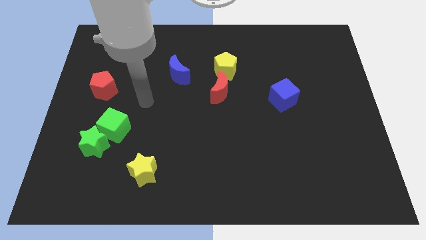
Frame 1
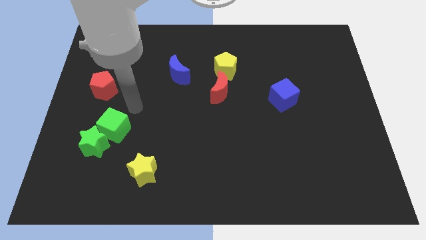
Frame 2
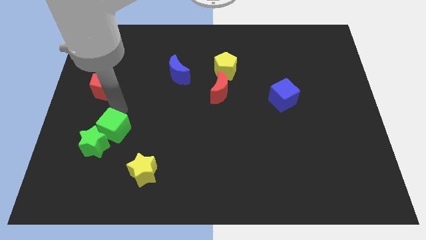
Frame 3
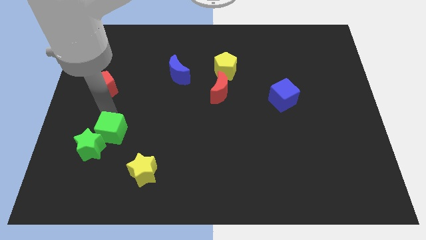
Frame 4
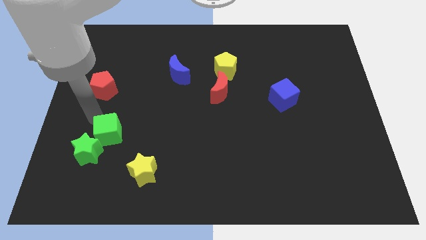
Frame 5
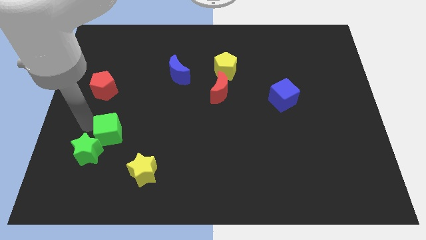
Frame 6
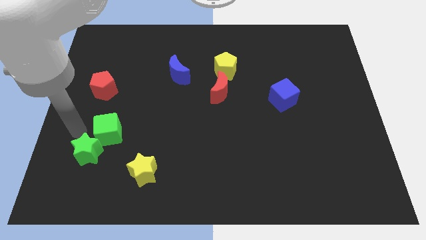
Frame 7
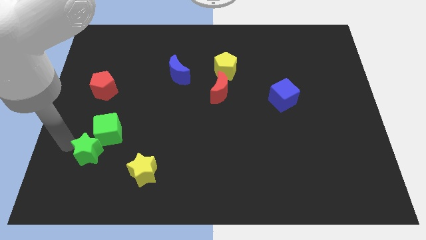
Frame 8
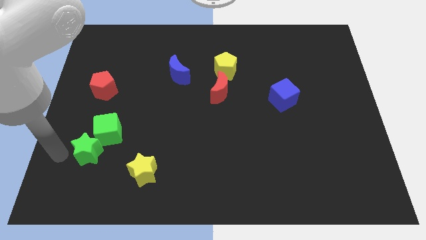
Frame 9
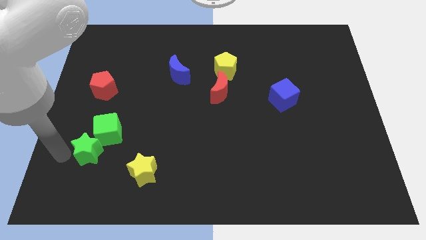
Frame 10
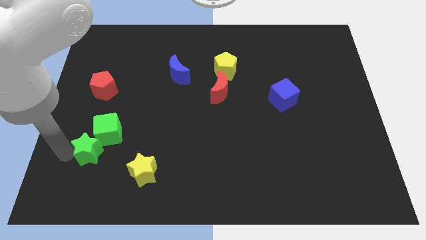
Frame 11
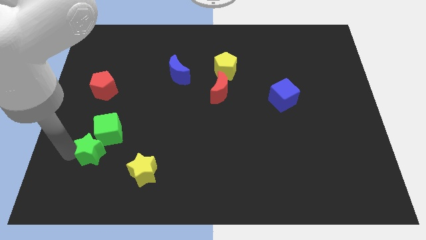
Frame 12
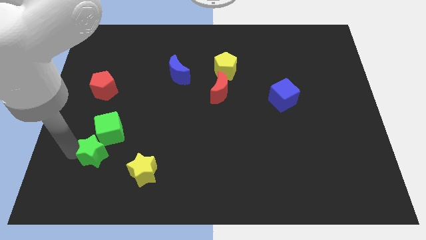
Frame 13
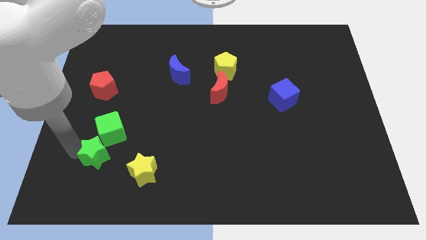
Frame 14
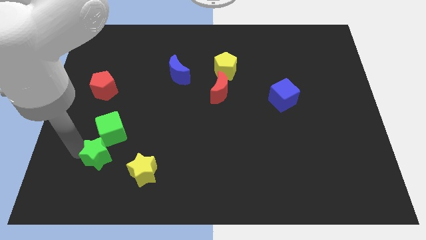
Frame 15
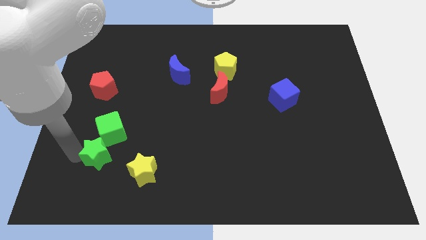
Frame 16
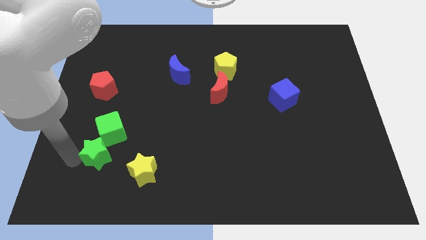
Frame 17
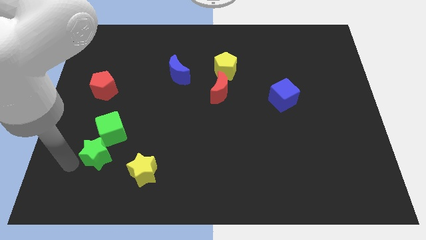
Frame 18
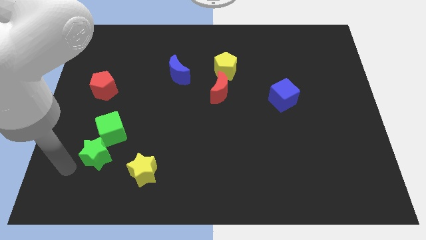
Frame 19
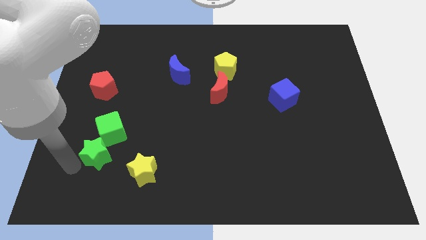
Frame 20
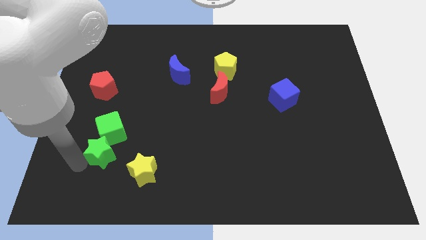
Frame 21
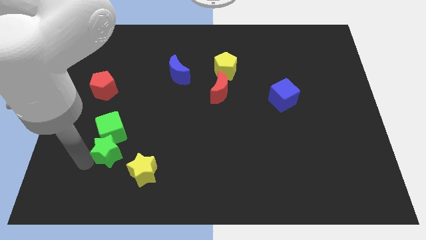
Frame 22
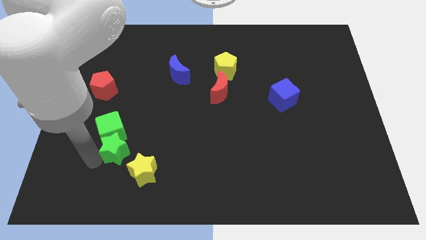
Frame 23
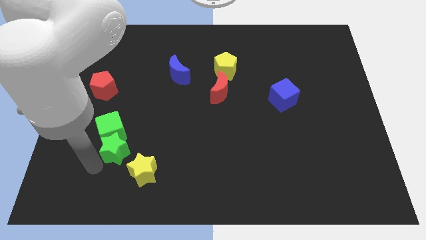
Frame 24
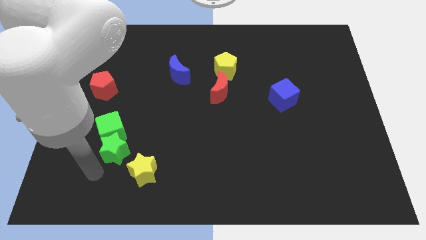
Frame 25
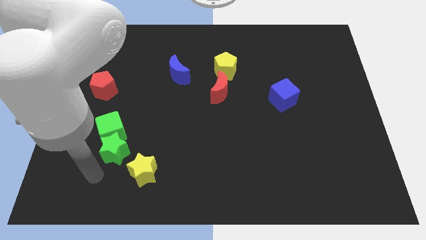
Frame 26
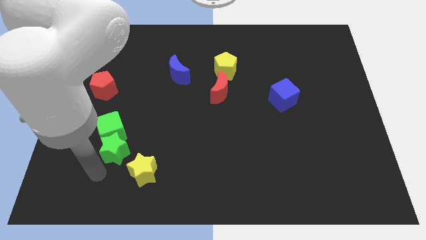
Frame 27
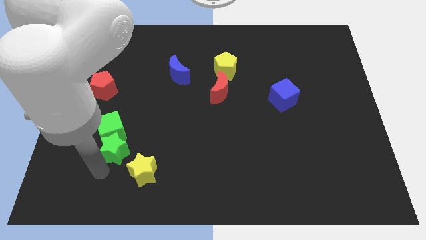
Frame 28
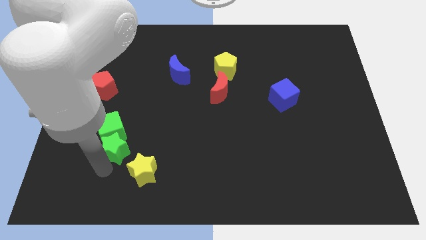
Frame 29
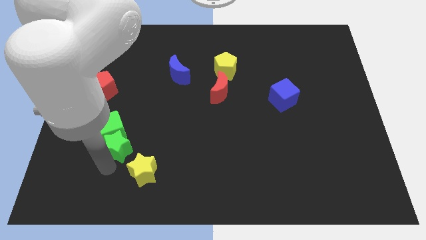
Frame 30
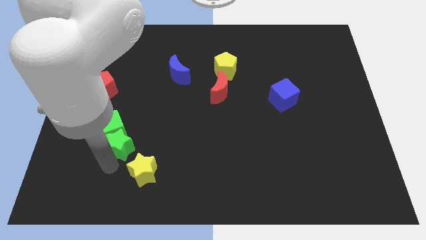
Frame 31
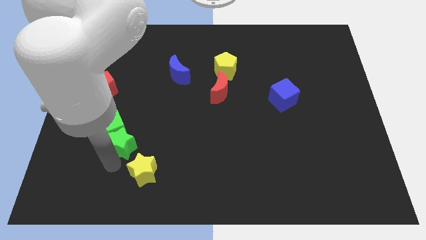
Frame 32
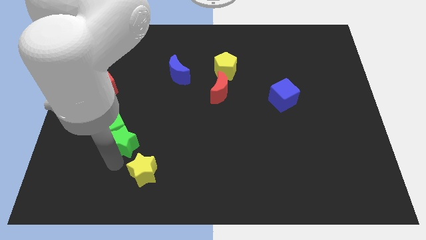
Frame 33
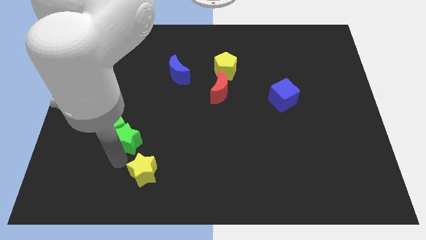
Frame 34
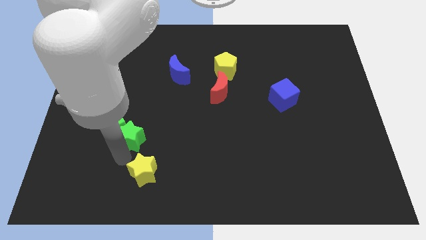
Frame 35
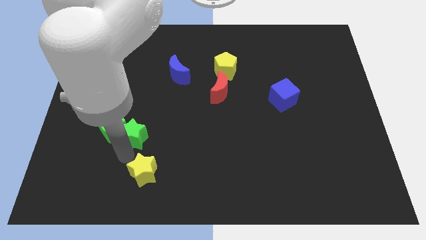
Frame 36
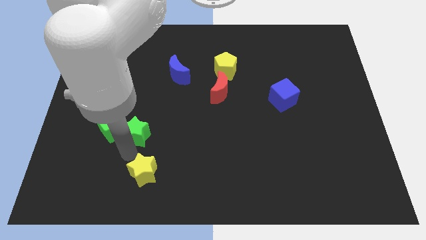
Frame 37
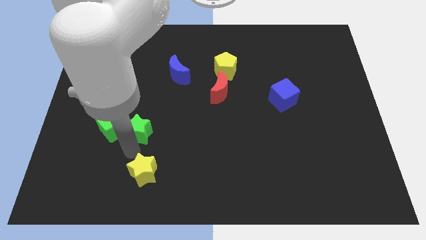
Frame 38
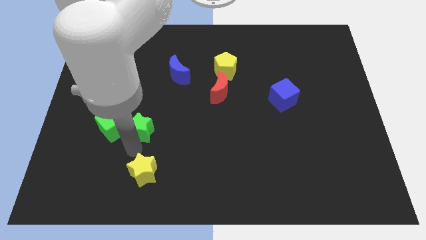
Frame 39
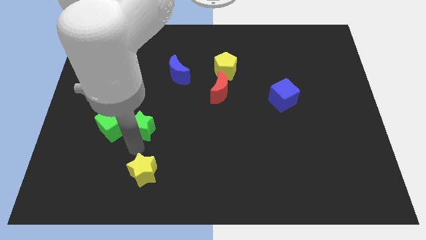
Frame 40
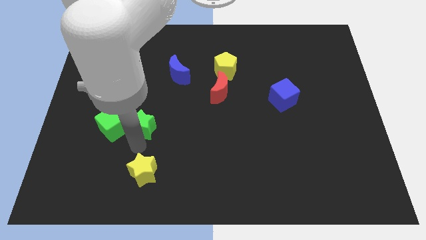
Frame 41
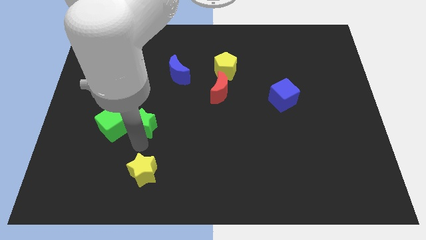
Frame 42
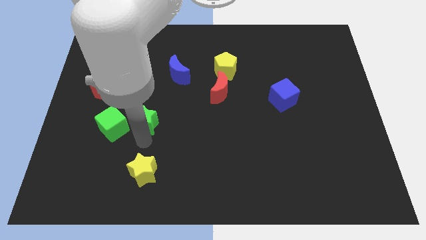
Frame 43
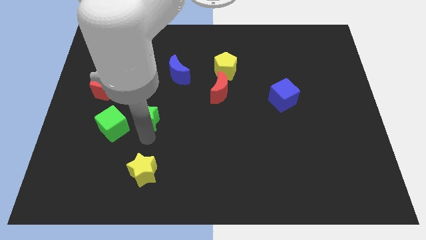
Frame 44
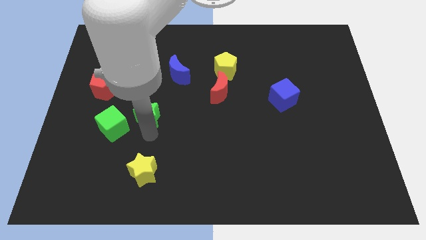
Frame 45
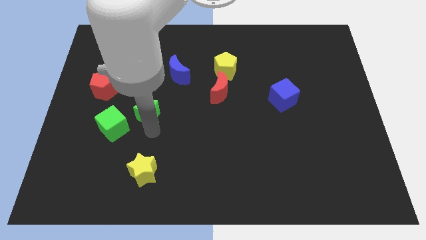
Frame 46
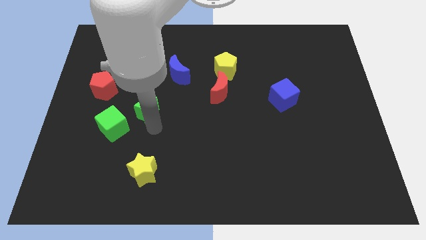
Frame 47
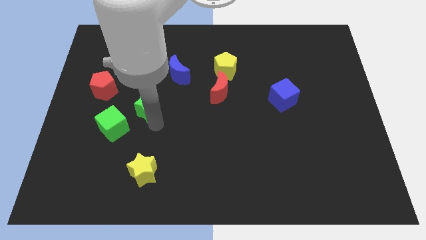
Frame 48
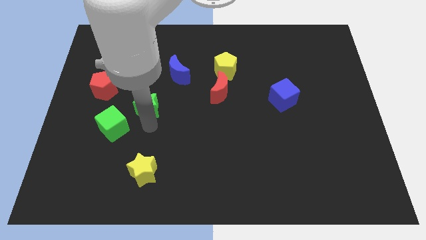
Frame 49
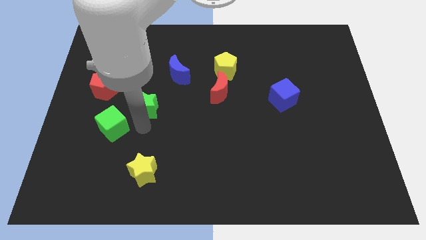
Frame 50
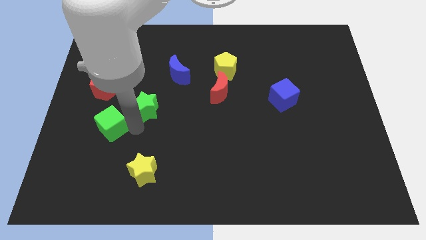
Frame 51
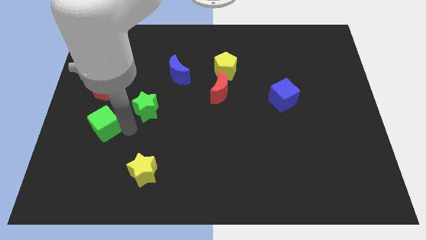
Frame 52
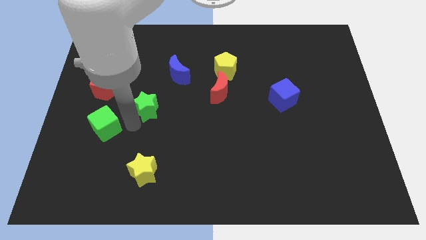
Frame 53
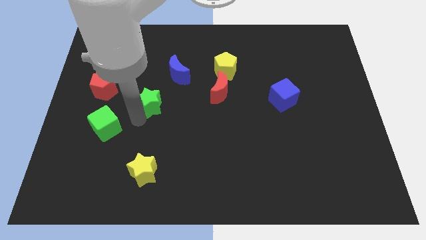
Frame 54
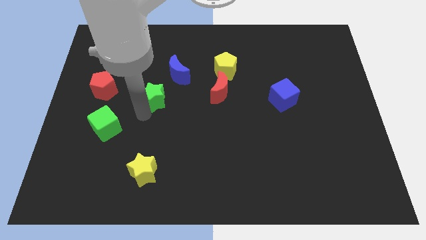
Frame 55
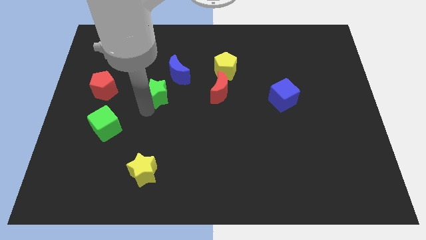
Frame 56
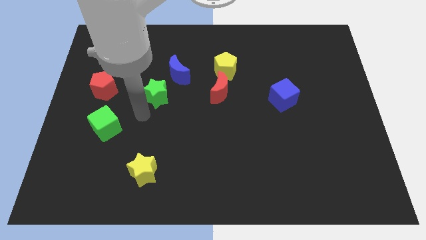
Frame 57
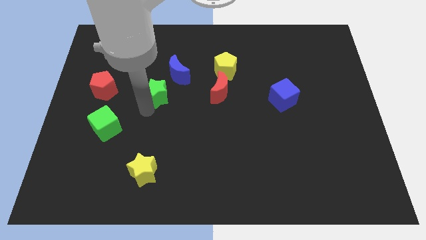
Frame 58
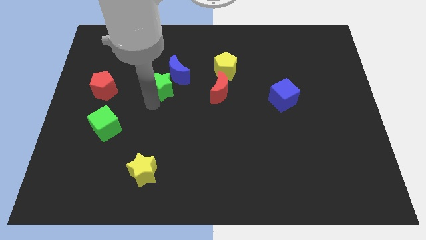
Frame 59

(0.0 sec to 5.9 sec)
push the green star next to the blue moon

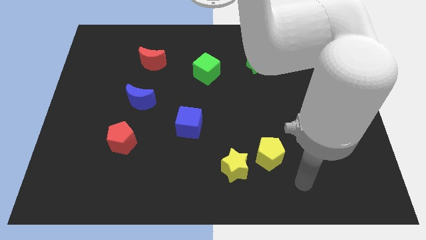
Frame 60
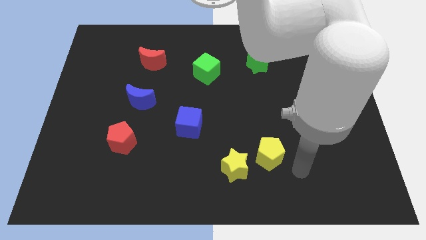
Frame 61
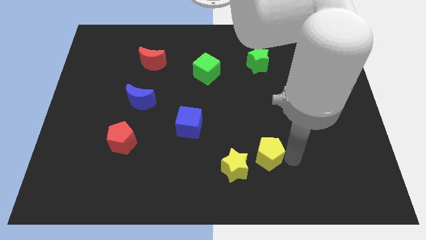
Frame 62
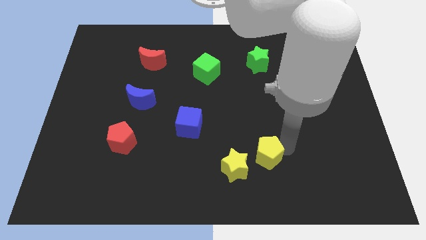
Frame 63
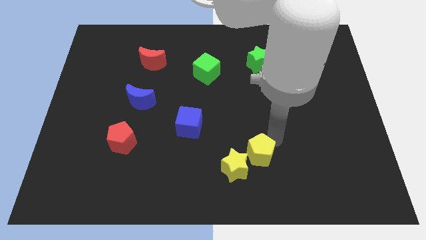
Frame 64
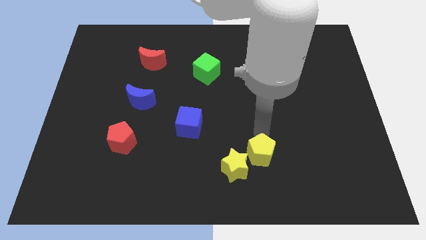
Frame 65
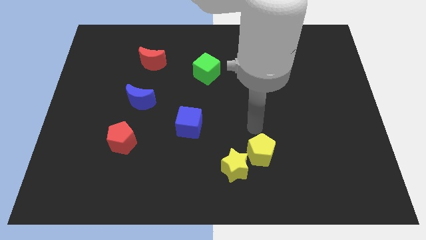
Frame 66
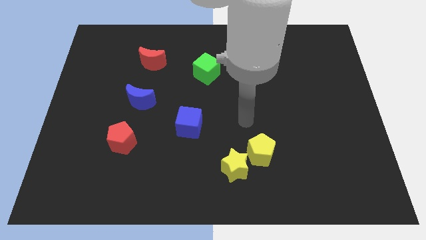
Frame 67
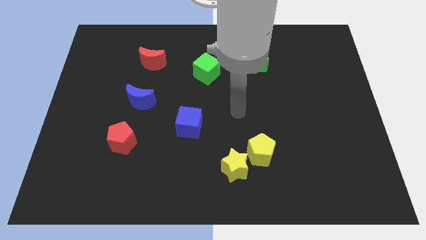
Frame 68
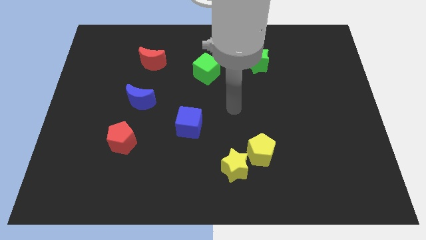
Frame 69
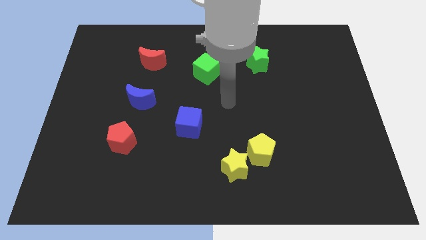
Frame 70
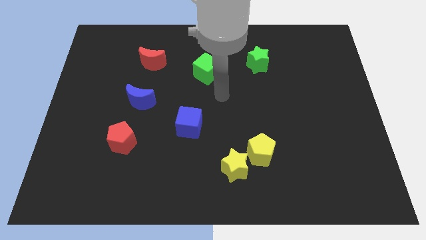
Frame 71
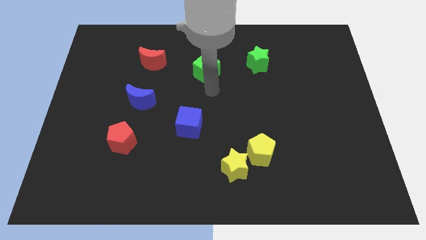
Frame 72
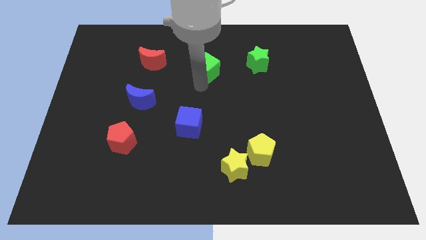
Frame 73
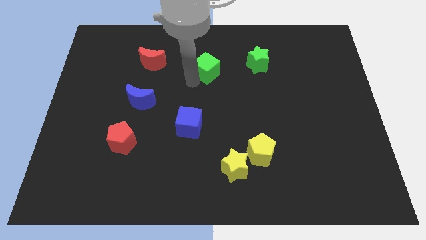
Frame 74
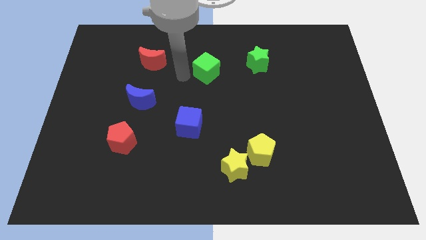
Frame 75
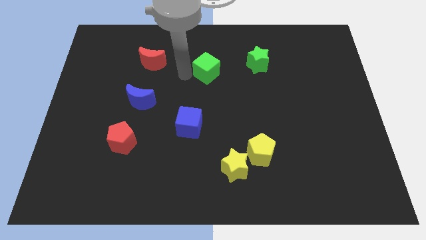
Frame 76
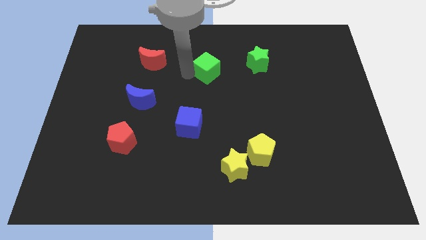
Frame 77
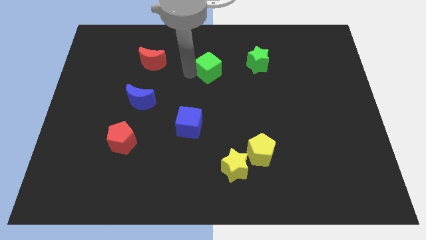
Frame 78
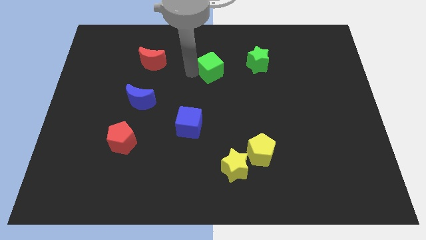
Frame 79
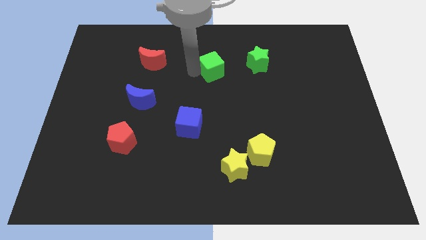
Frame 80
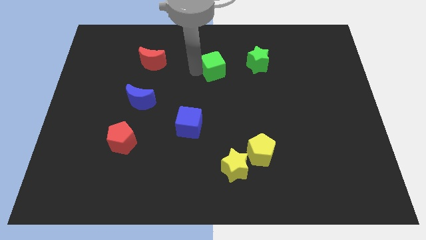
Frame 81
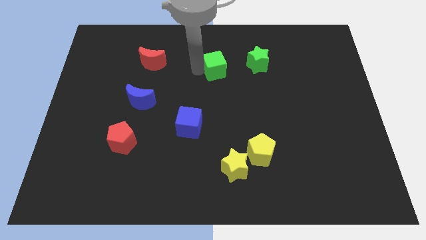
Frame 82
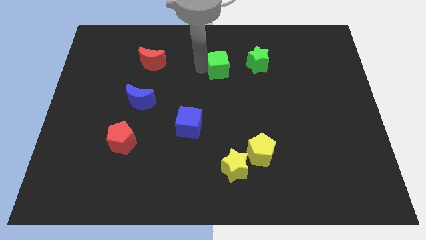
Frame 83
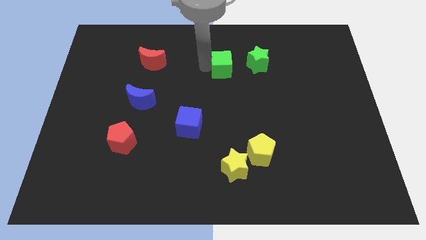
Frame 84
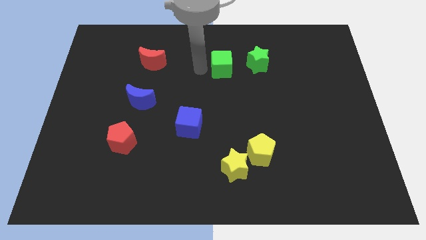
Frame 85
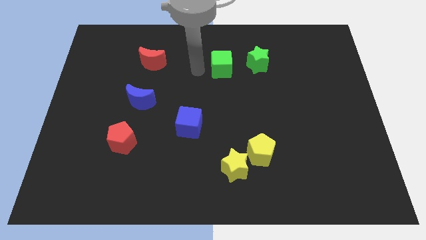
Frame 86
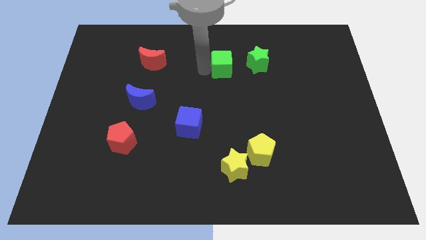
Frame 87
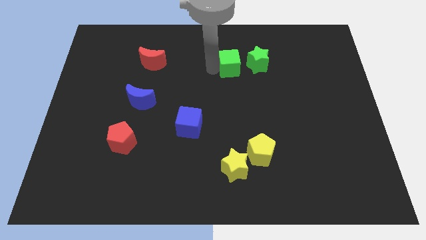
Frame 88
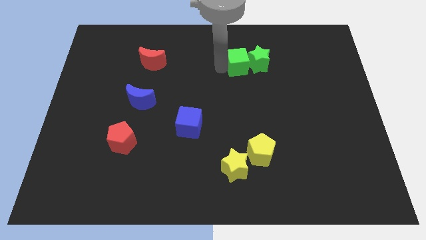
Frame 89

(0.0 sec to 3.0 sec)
move the green cube towards the green star
